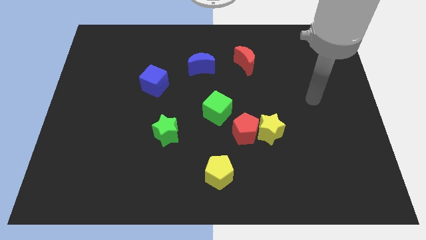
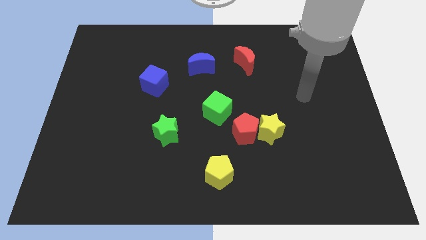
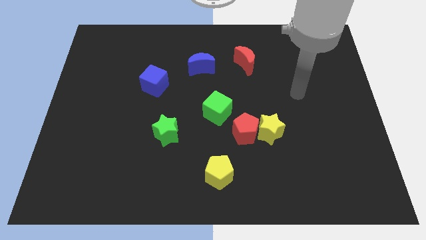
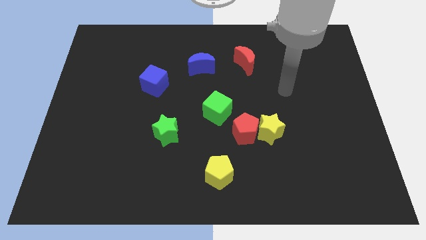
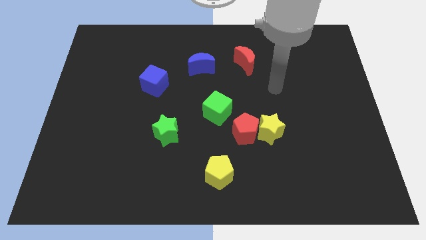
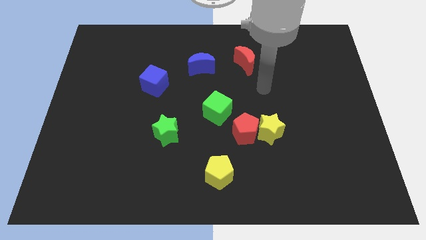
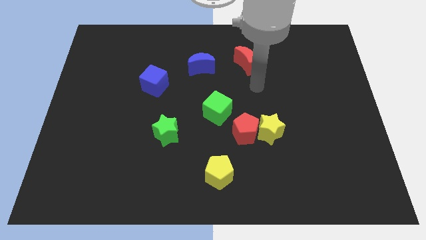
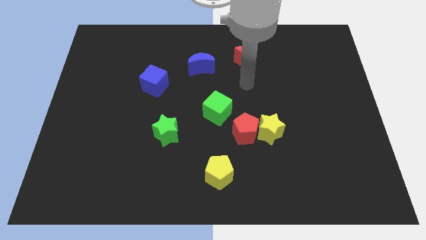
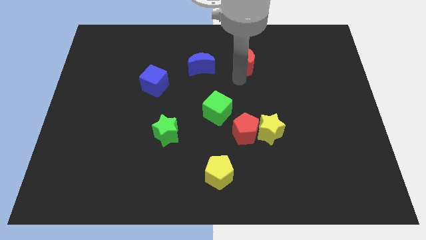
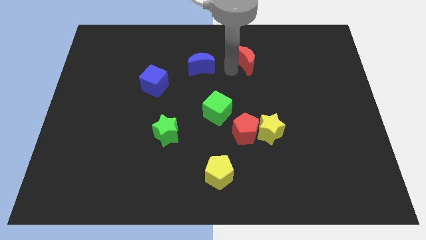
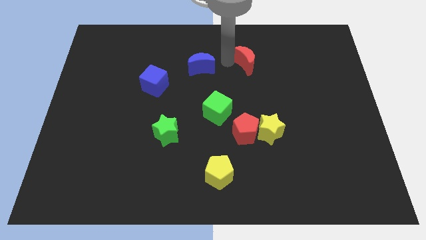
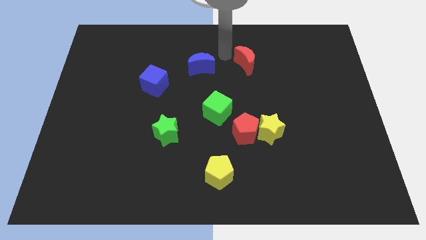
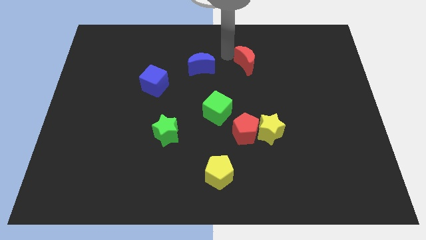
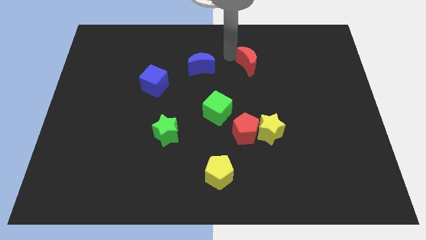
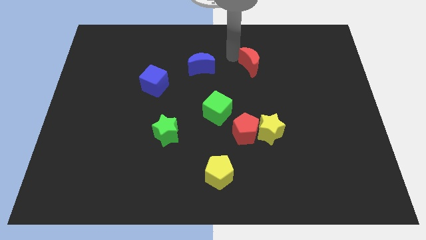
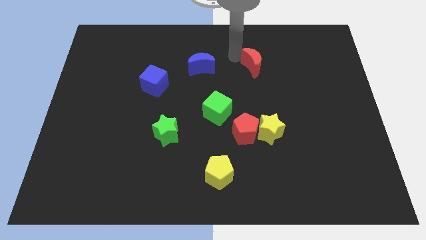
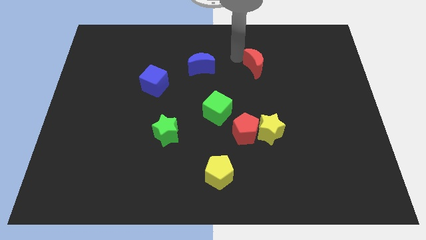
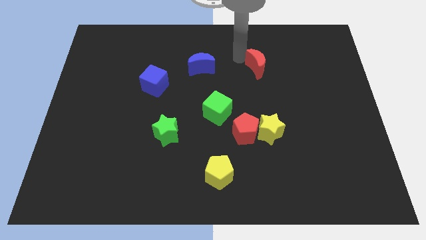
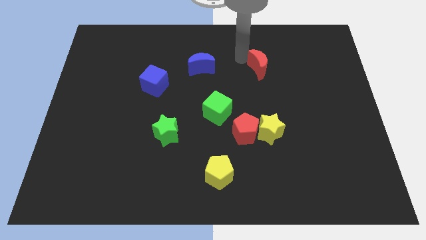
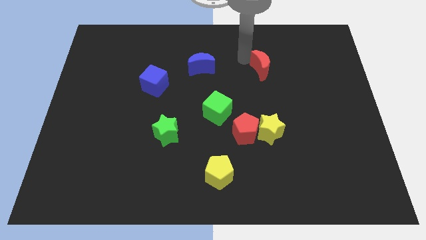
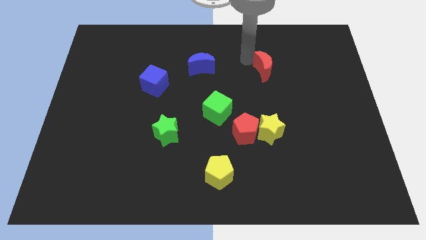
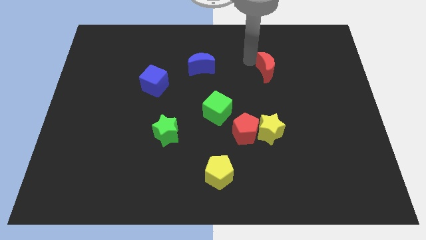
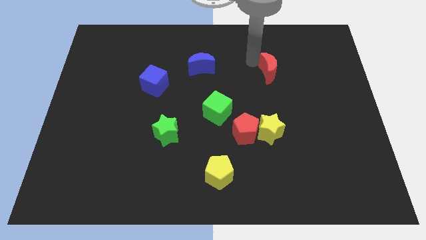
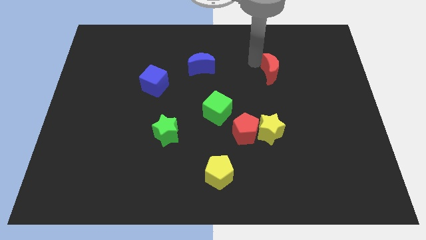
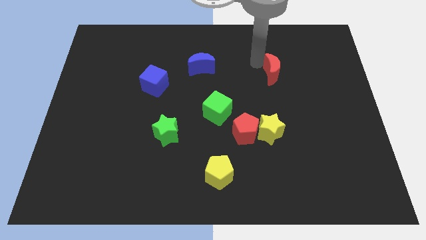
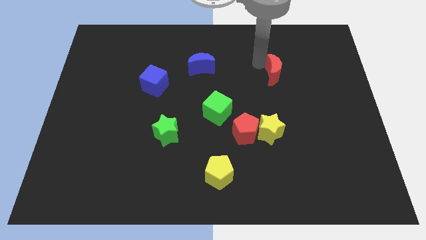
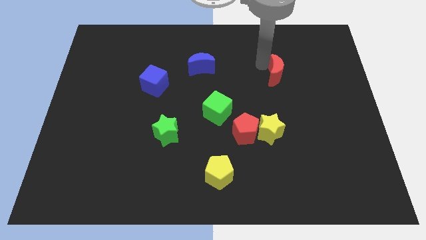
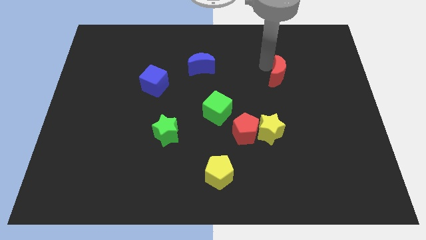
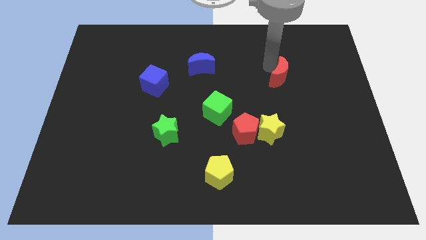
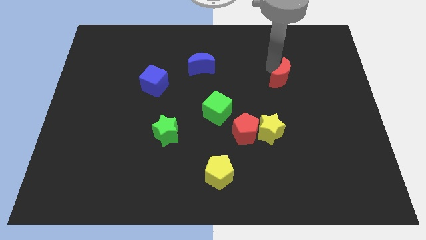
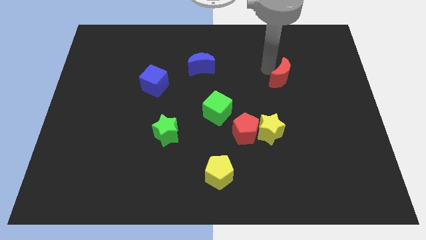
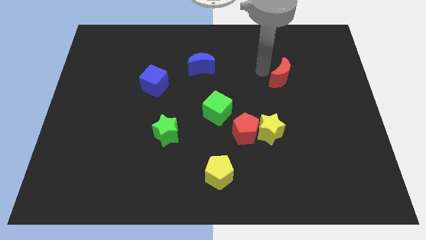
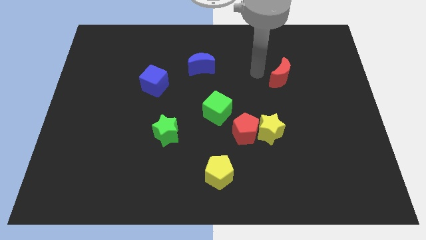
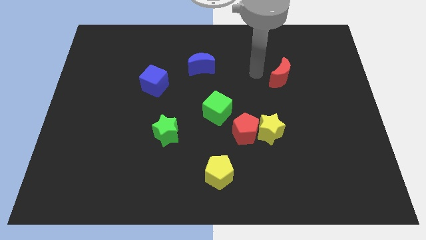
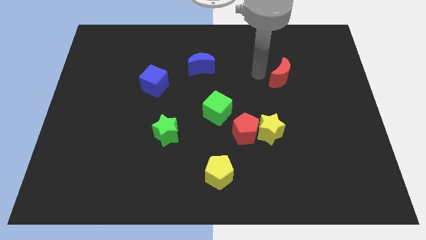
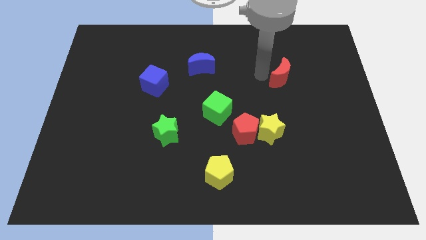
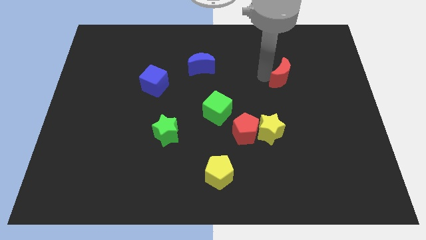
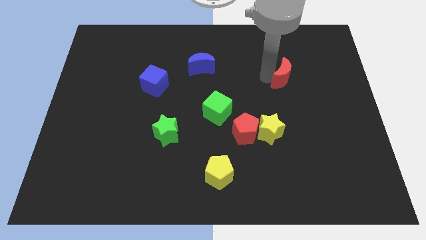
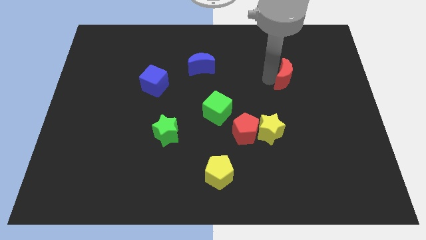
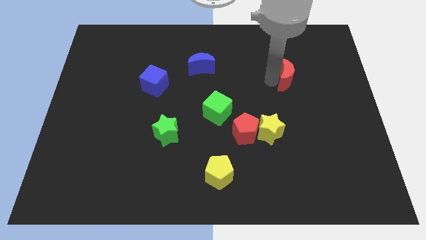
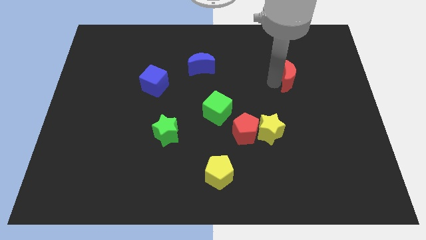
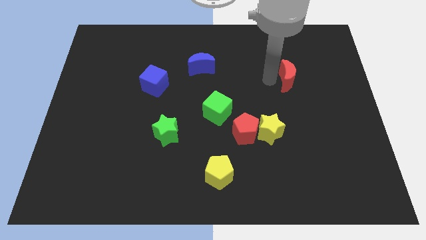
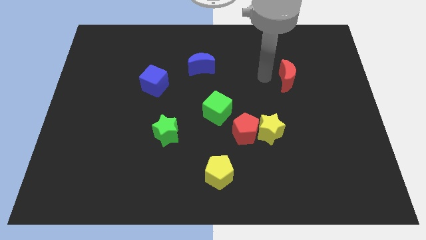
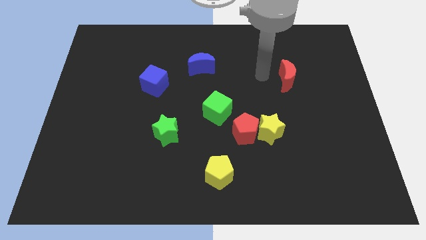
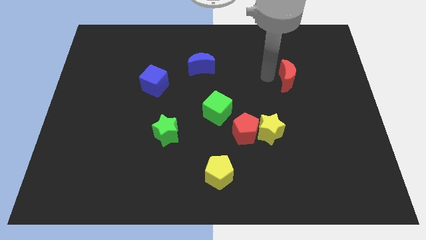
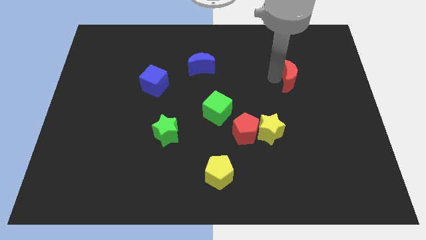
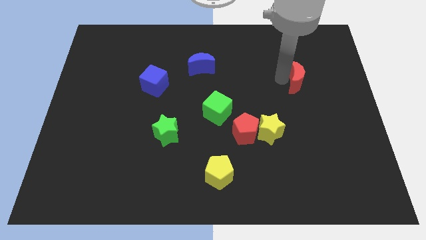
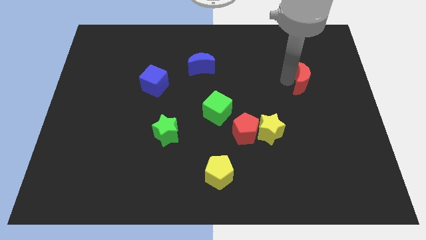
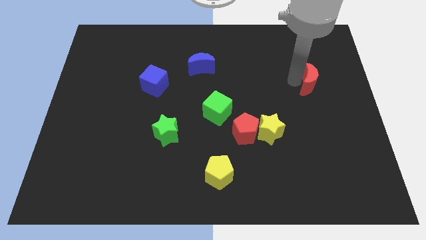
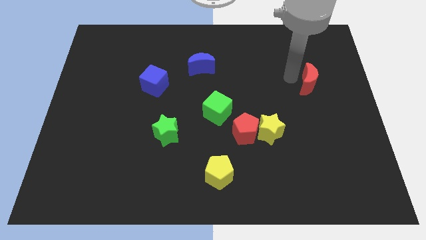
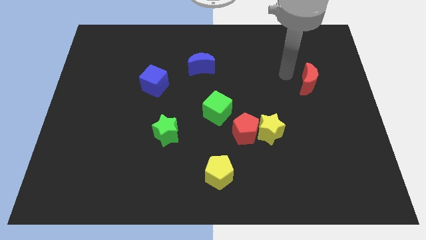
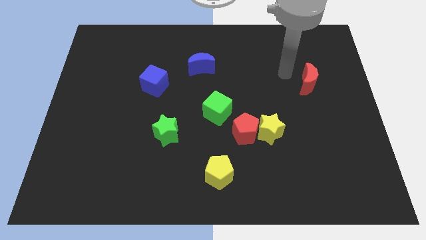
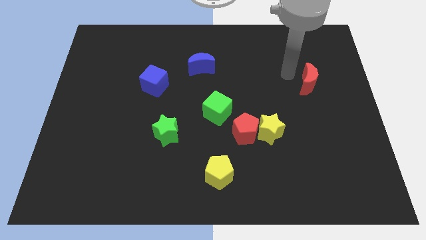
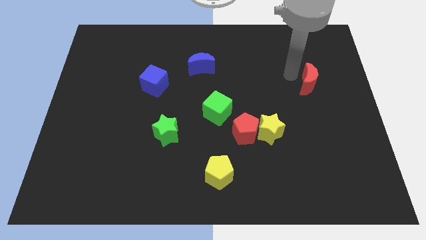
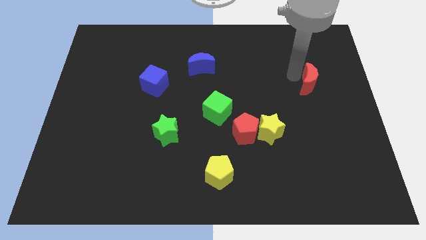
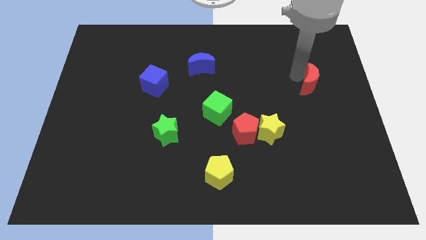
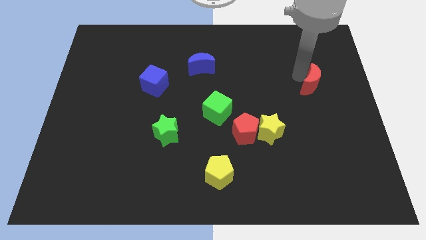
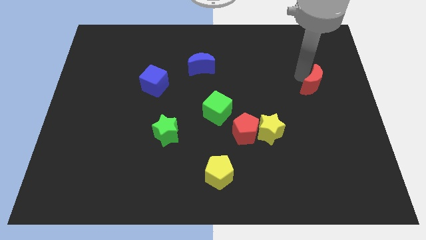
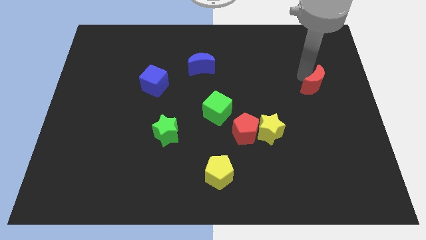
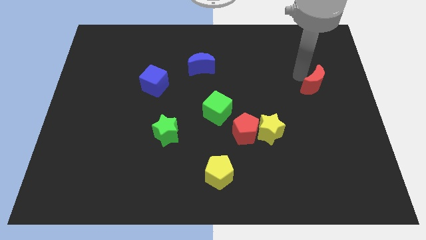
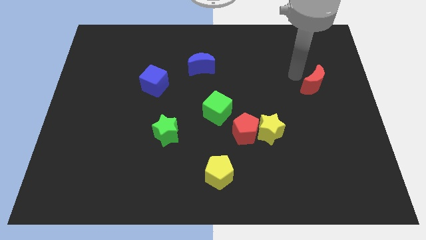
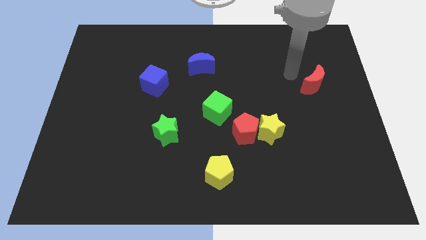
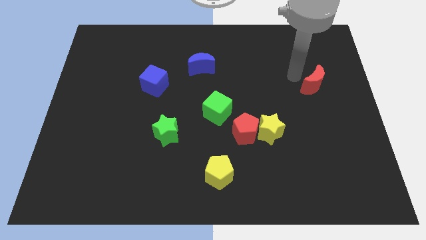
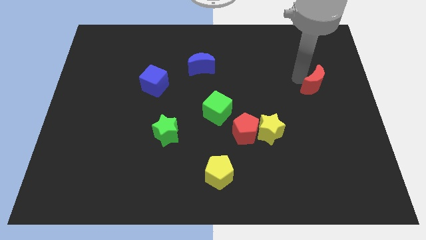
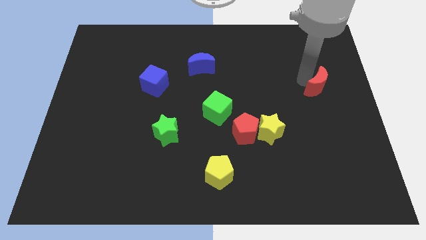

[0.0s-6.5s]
push the red moon to the center right

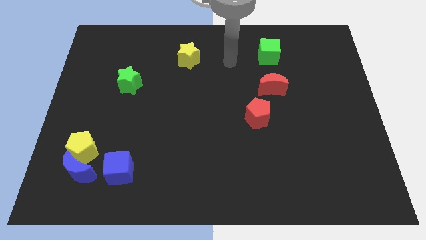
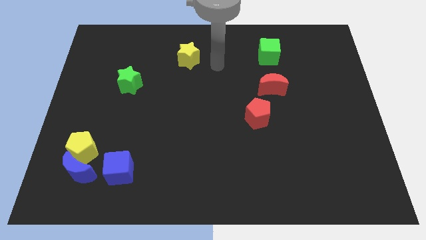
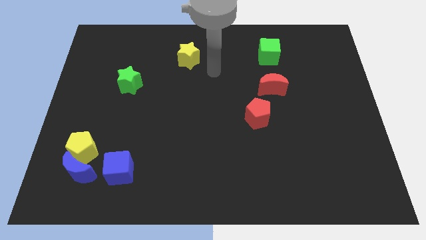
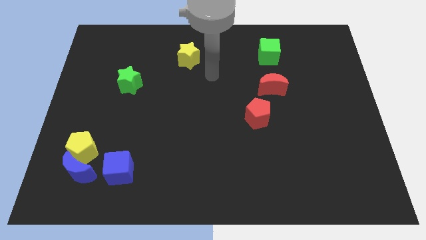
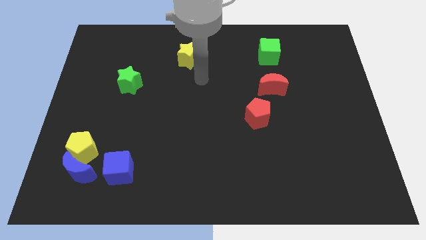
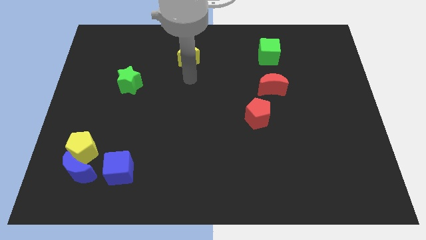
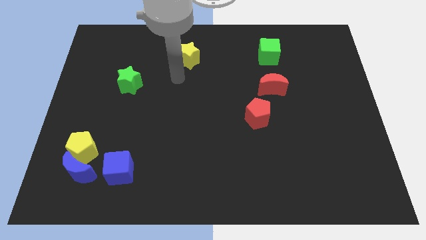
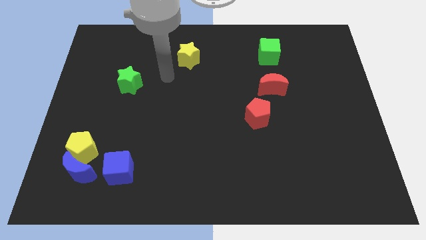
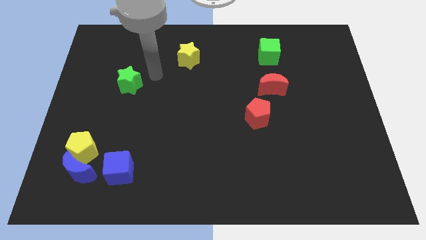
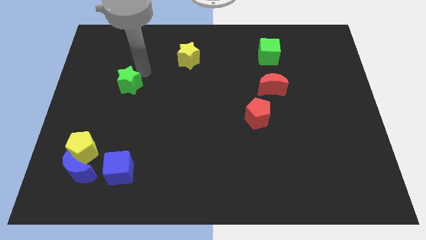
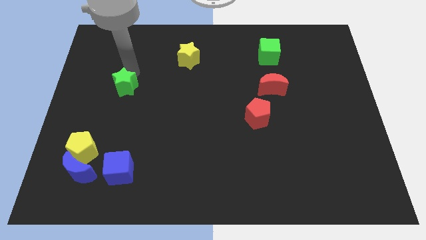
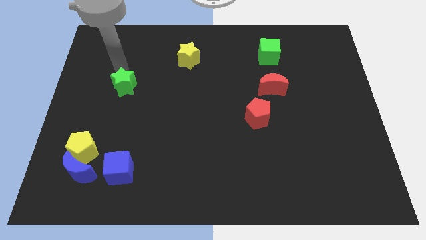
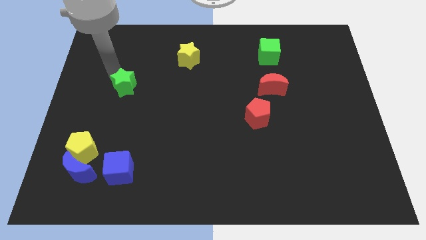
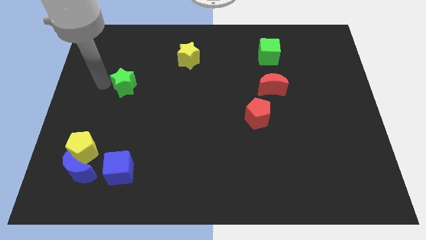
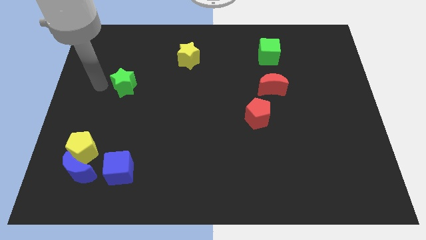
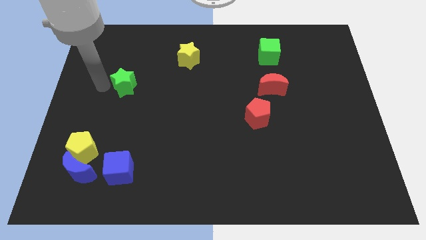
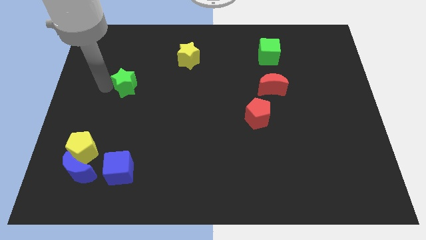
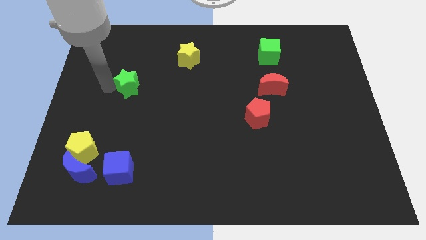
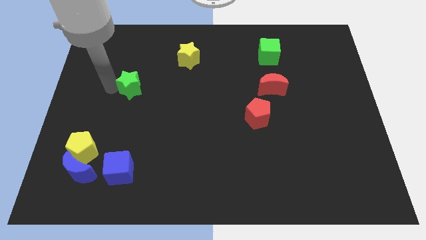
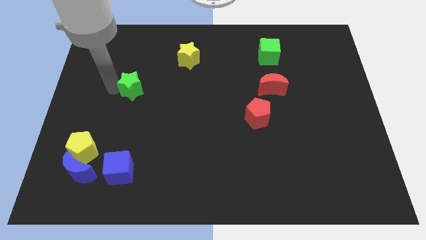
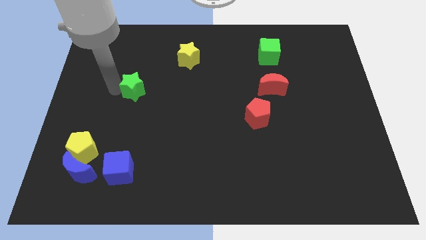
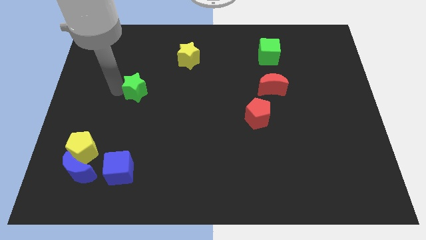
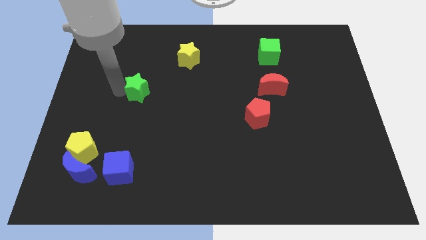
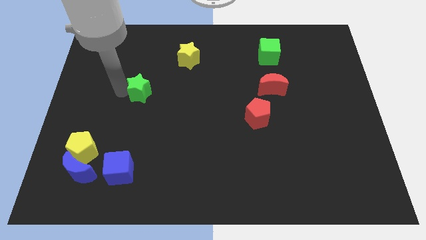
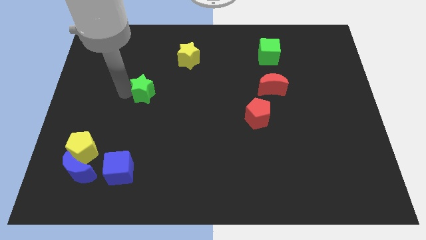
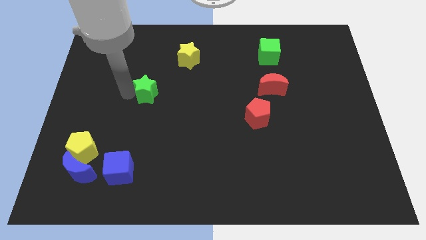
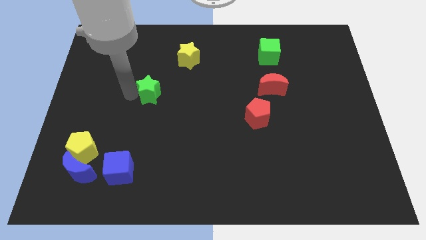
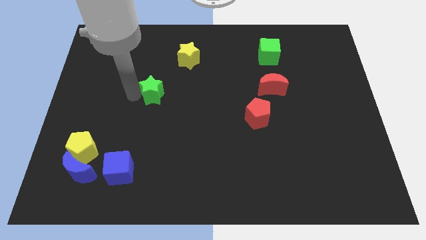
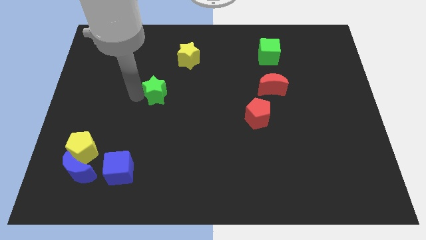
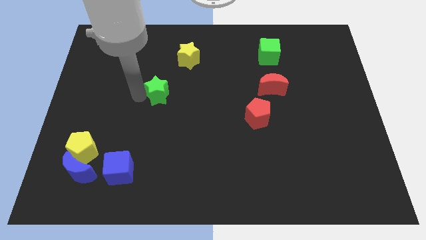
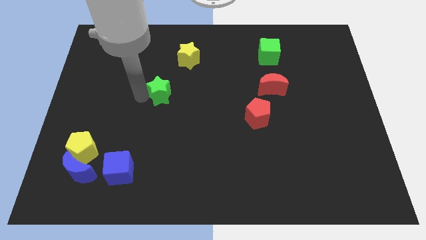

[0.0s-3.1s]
put the green star to the center
